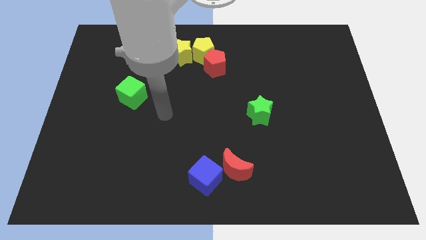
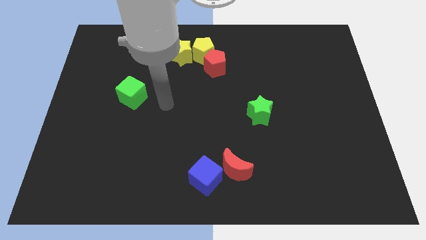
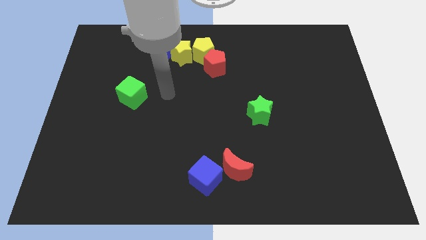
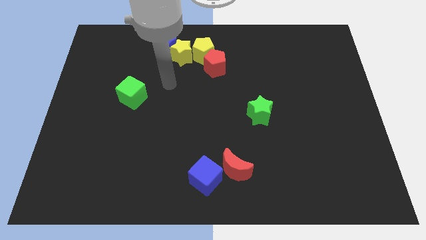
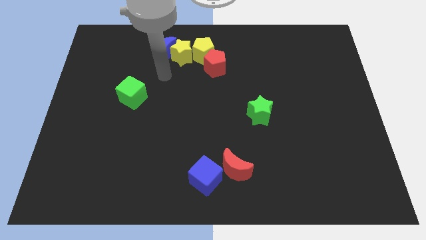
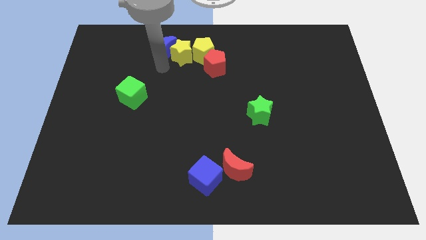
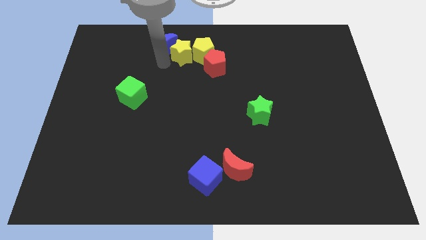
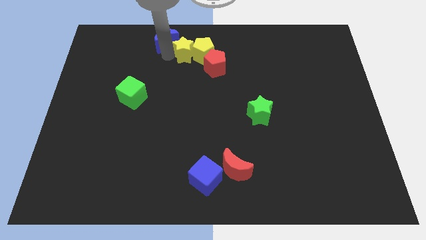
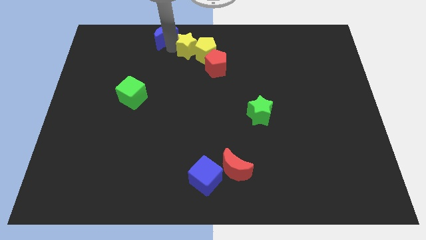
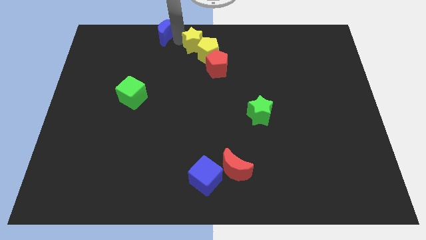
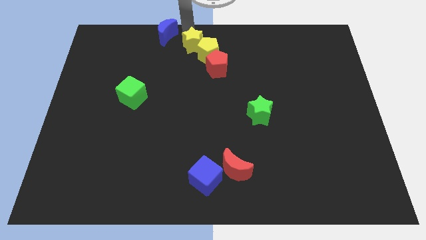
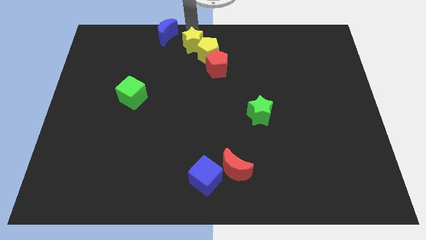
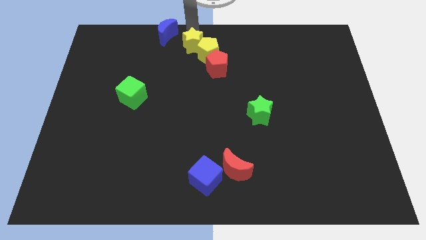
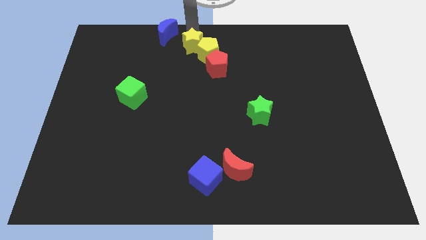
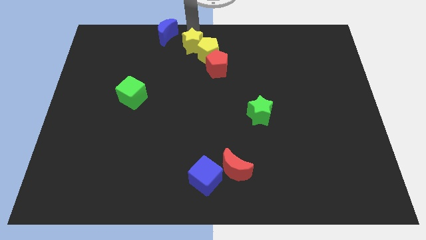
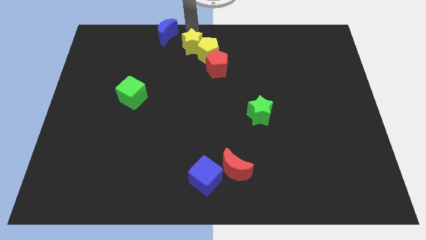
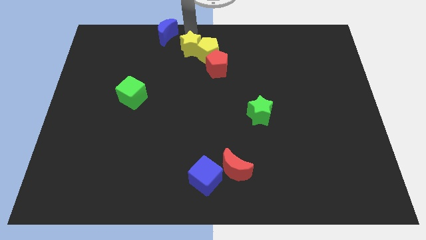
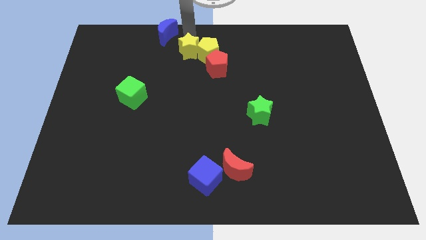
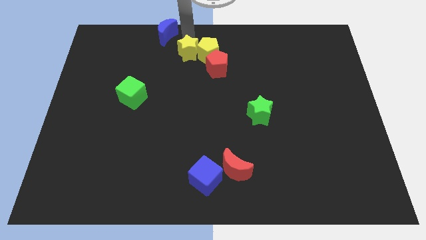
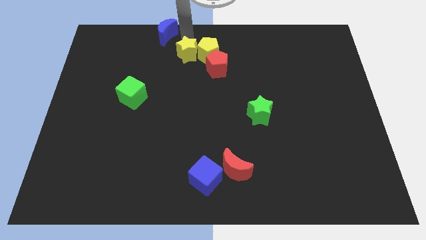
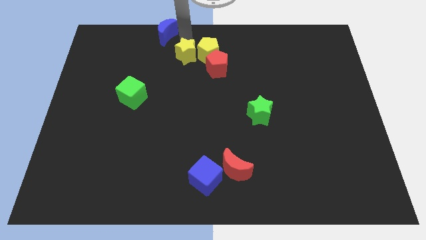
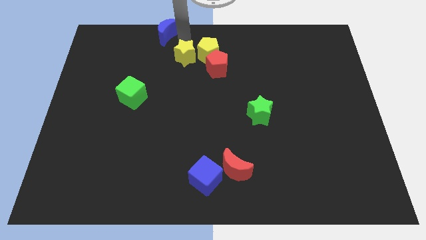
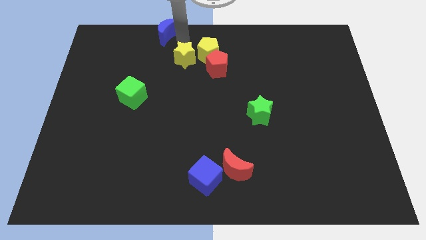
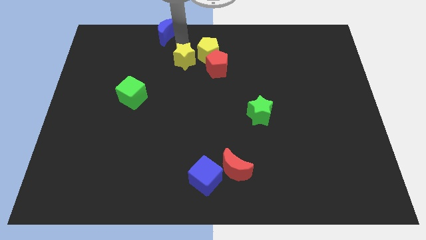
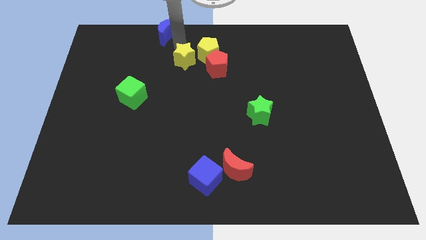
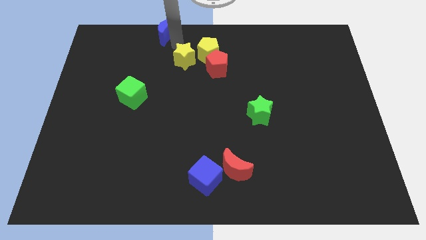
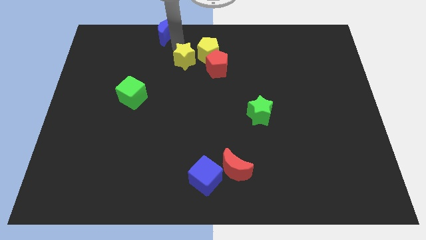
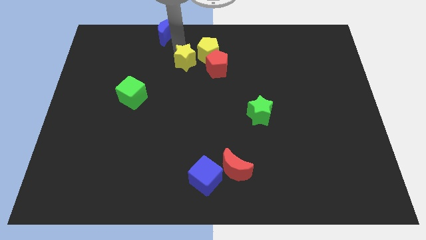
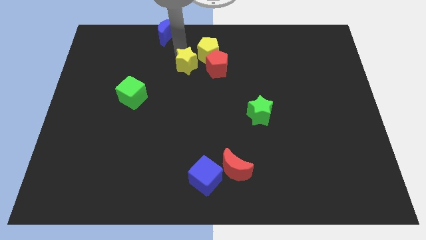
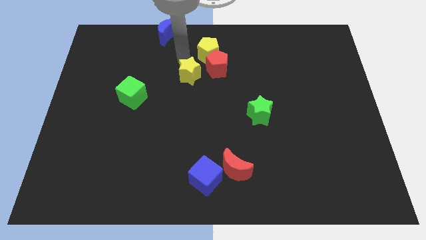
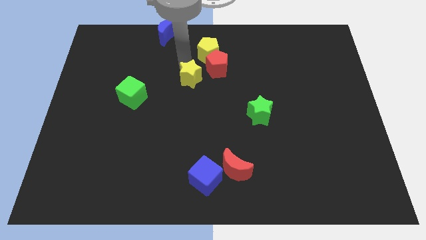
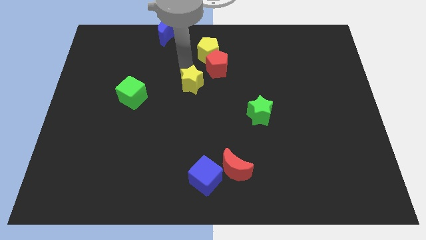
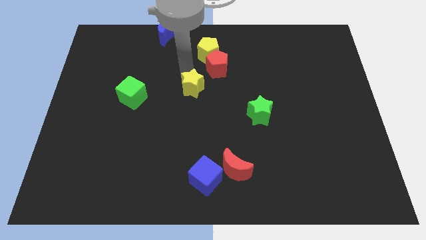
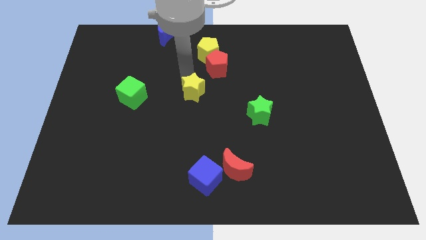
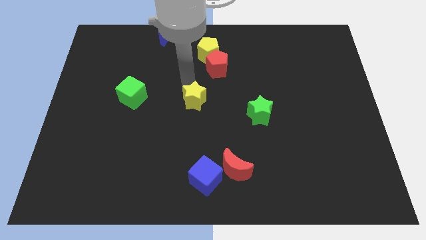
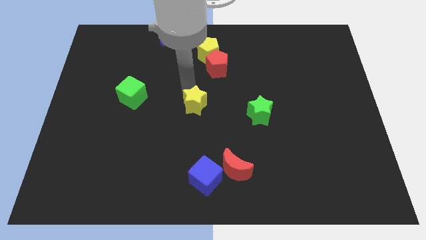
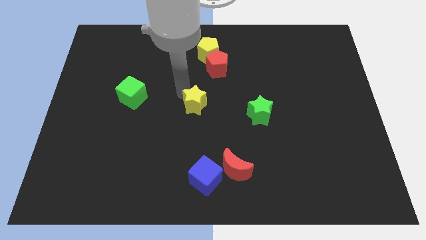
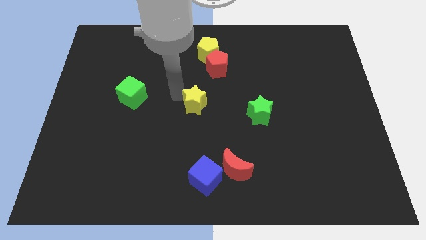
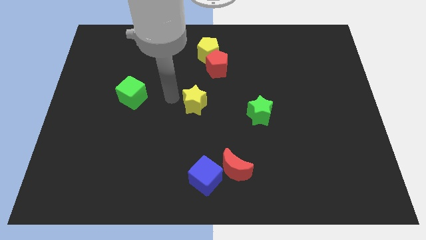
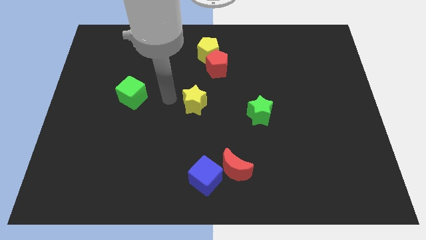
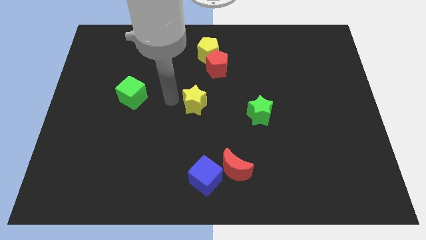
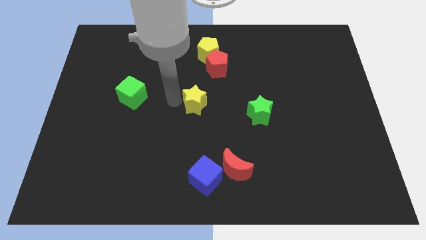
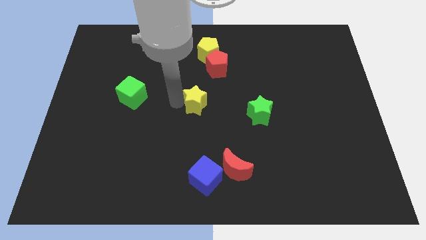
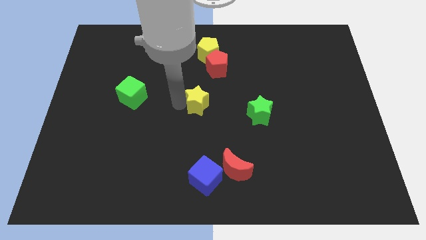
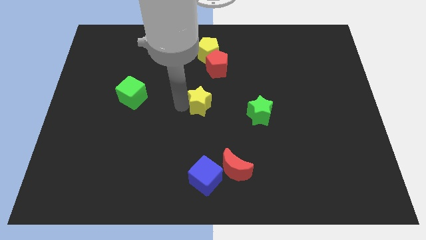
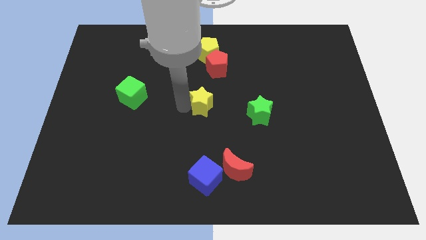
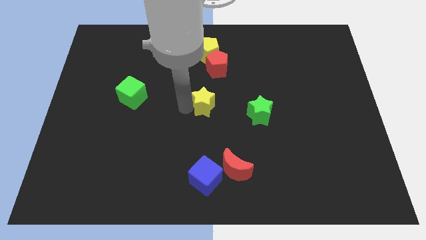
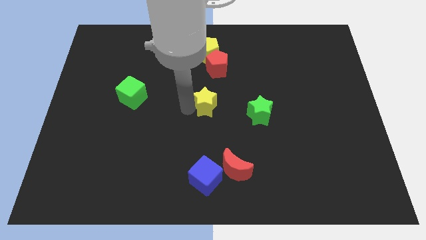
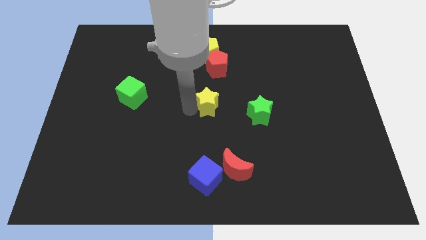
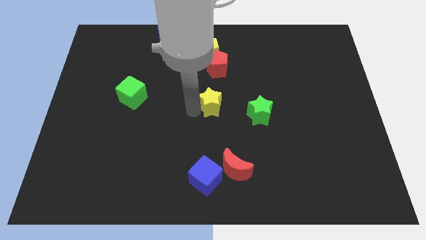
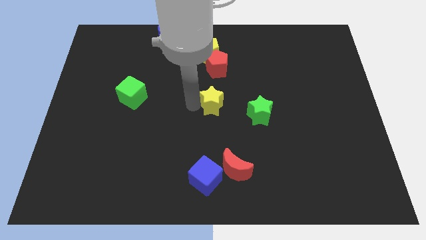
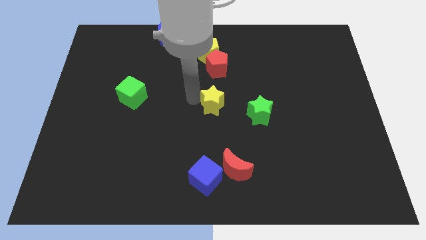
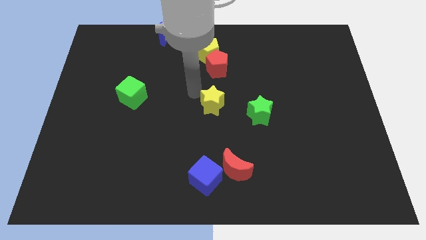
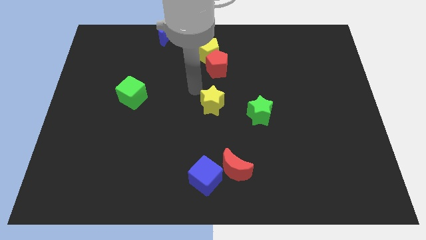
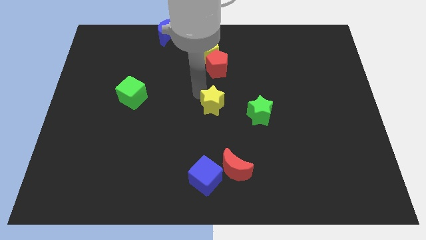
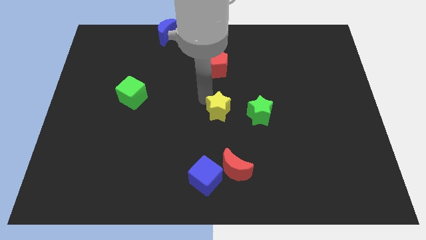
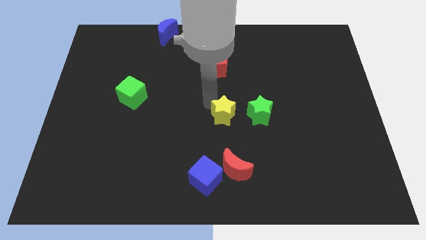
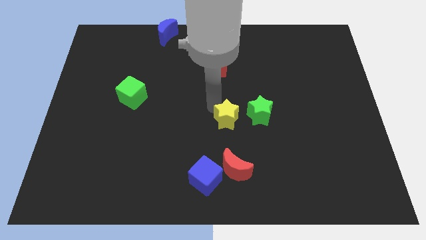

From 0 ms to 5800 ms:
move the yellow star downwards and right diagonally

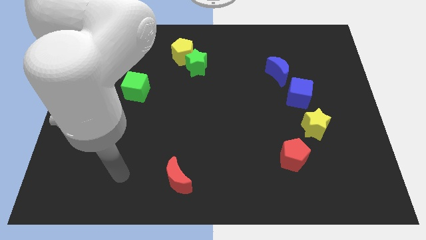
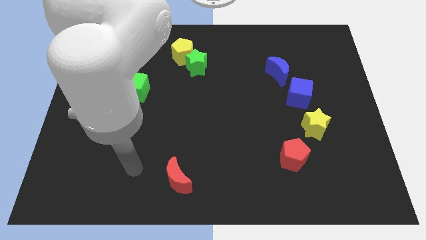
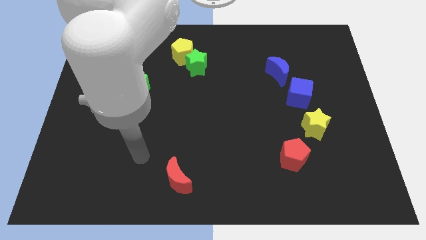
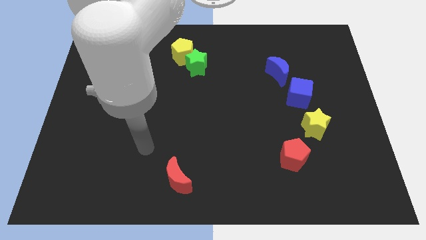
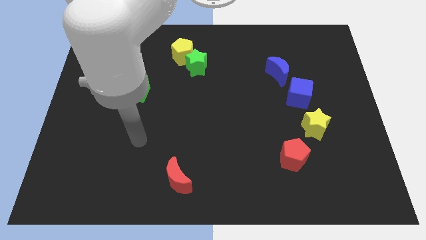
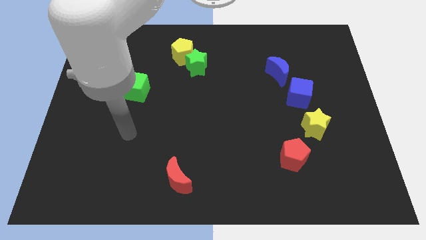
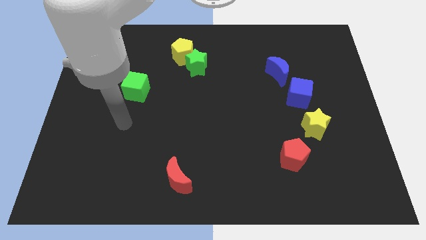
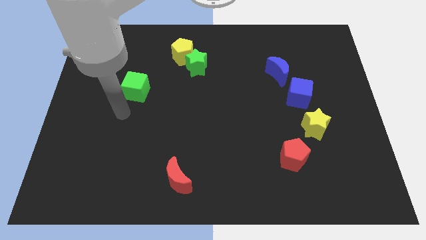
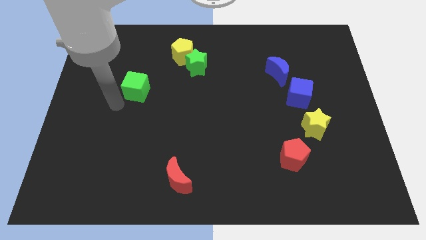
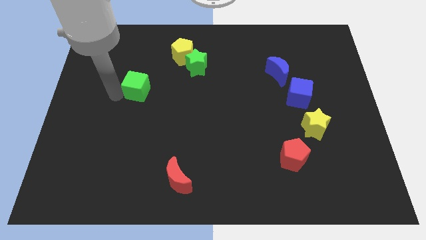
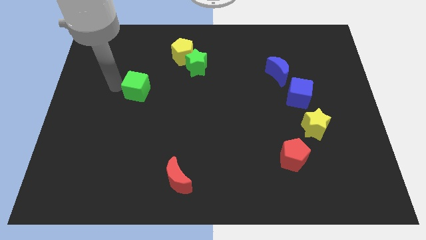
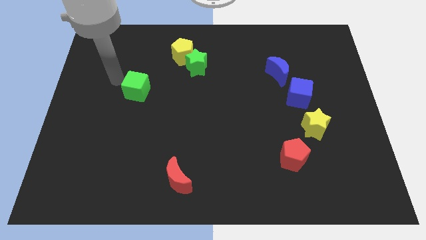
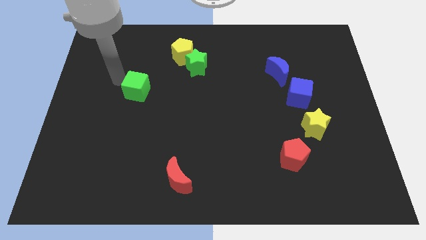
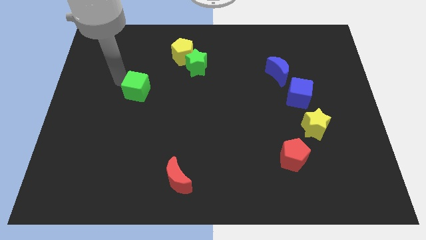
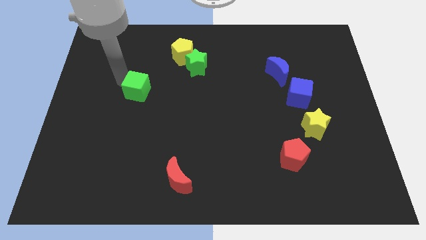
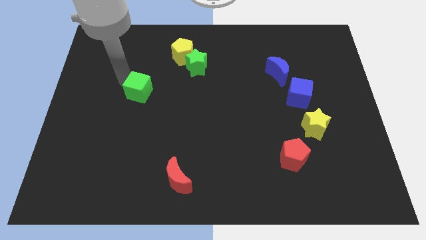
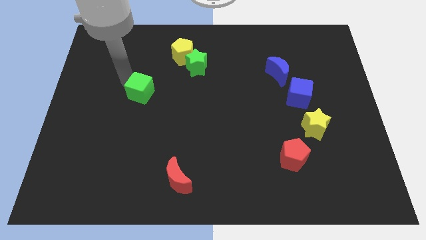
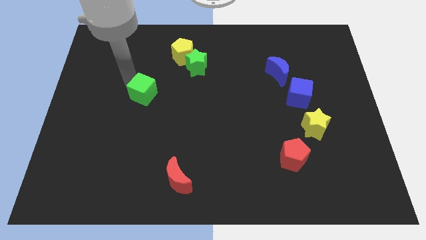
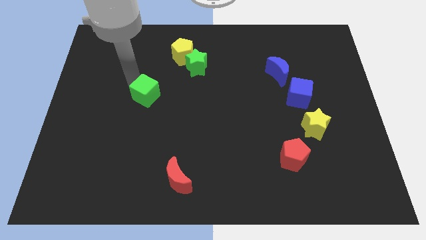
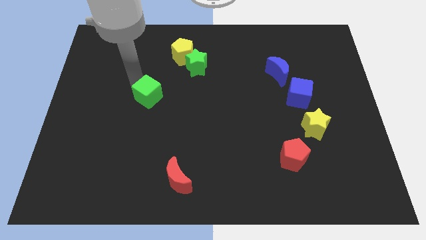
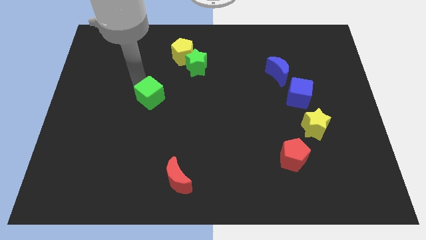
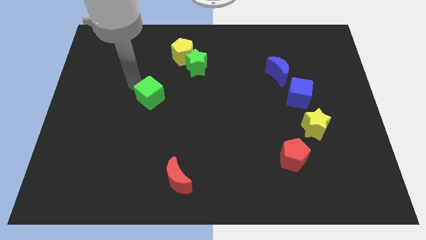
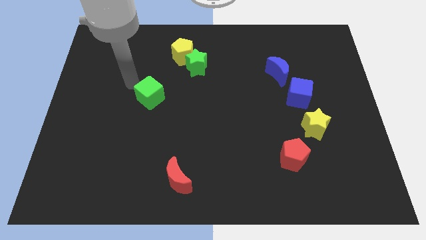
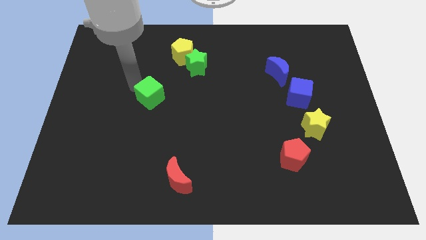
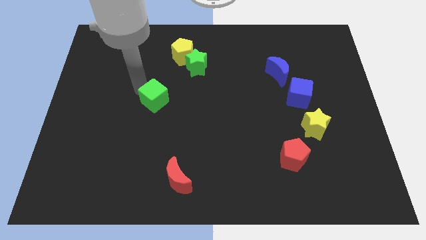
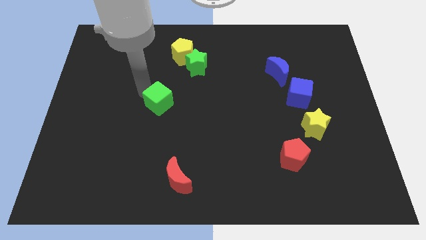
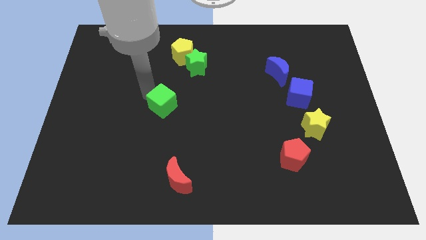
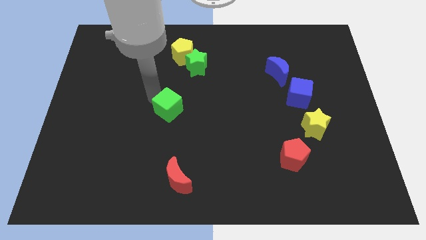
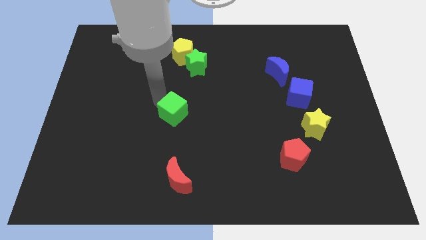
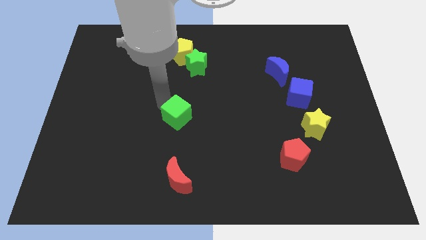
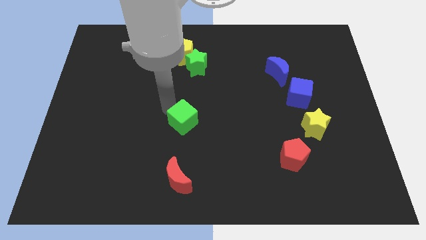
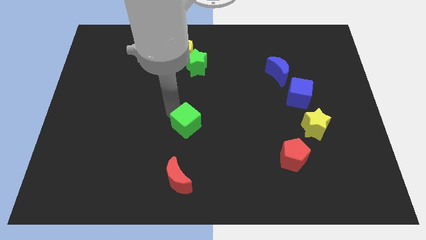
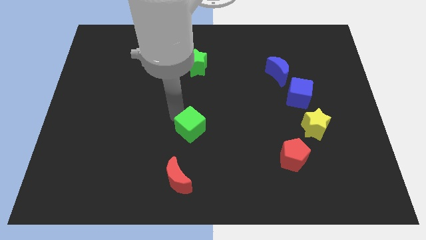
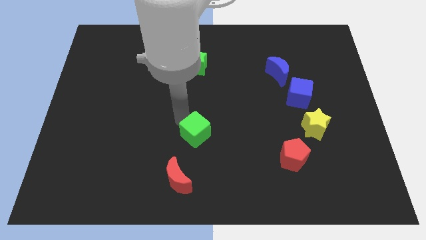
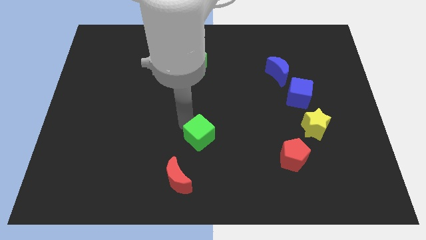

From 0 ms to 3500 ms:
move the green cube down and to the right diagonally
